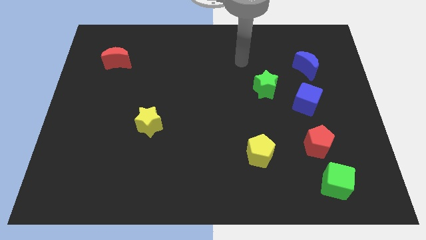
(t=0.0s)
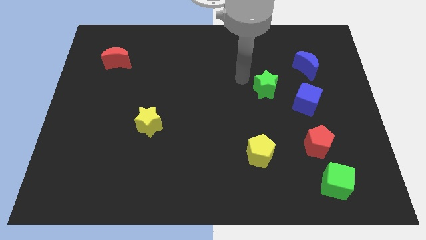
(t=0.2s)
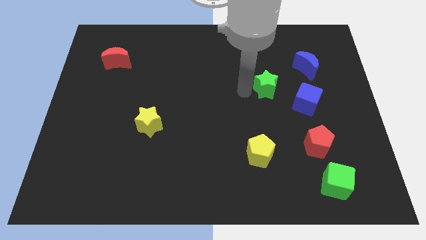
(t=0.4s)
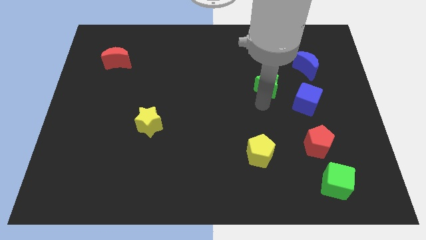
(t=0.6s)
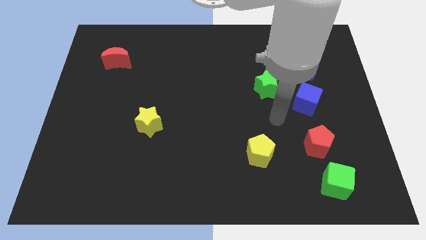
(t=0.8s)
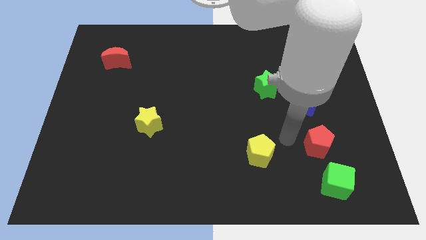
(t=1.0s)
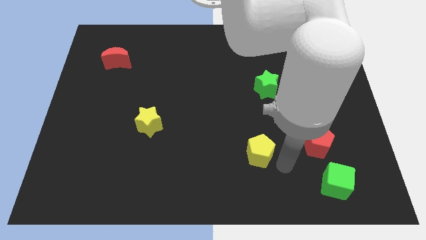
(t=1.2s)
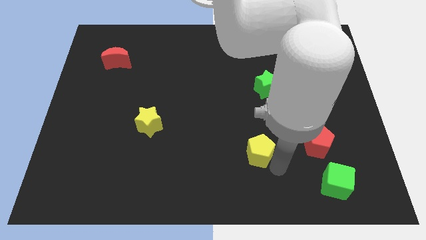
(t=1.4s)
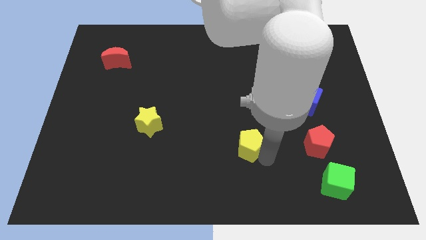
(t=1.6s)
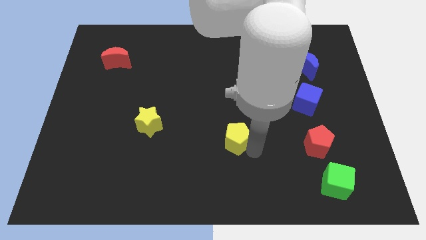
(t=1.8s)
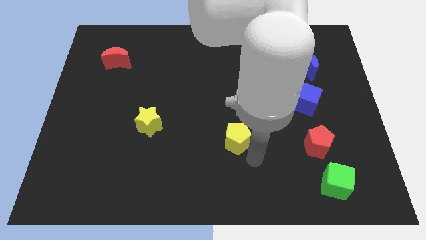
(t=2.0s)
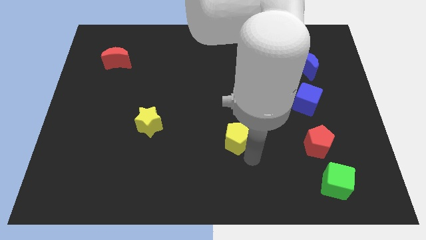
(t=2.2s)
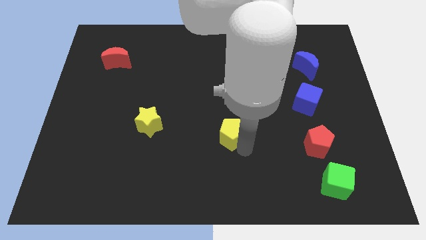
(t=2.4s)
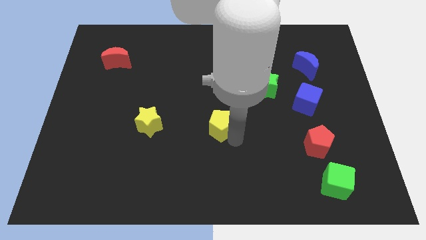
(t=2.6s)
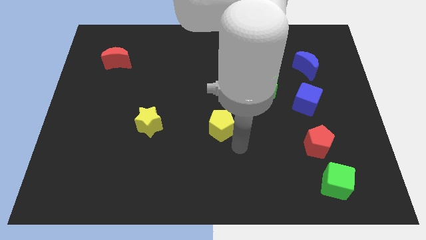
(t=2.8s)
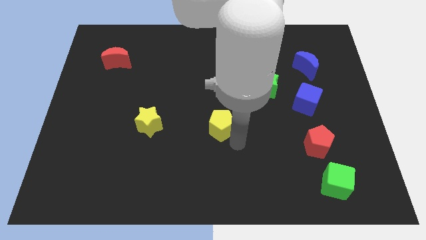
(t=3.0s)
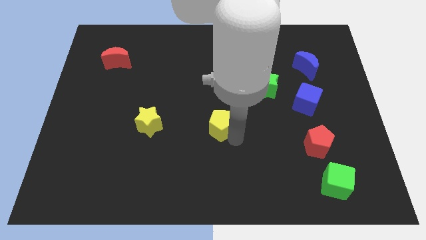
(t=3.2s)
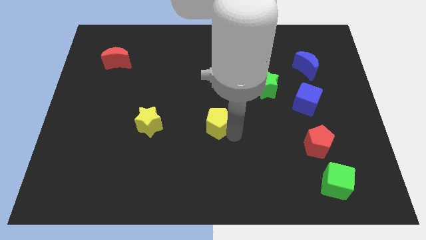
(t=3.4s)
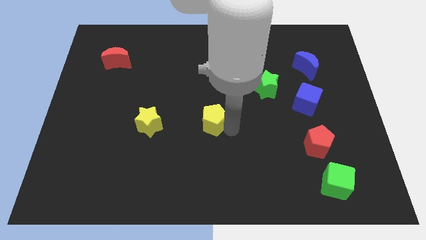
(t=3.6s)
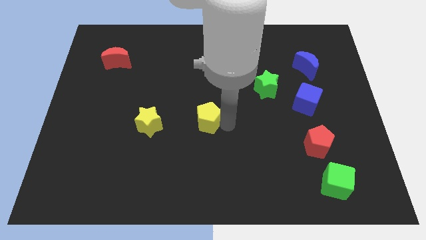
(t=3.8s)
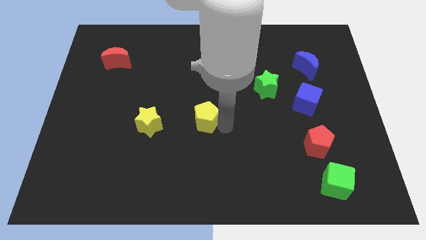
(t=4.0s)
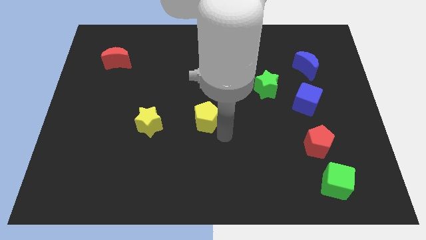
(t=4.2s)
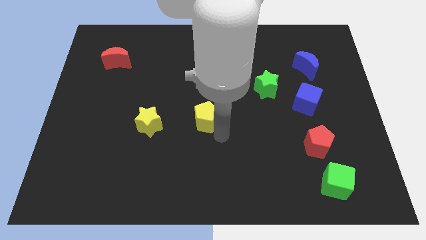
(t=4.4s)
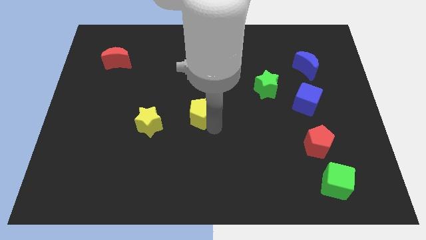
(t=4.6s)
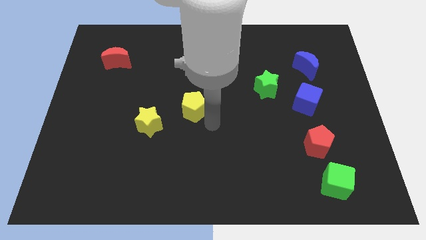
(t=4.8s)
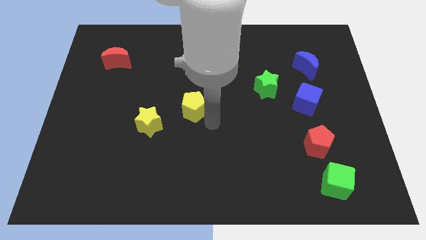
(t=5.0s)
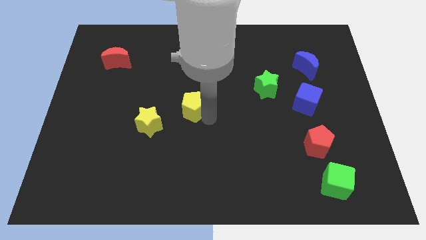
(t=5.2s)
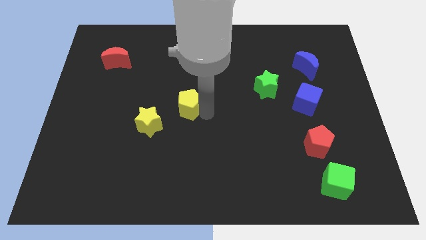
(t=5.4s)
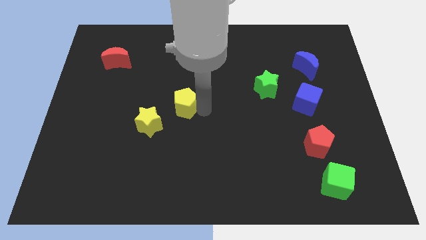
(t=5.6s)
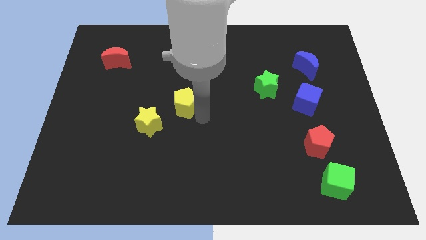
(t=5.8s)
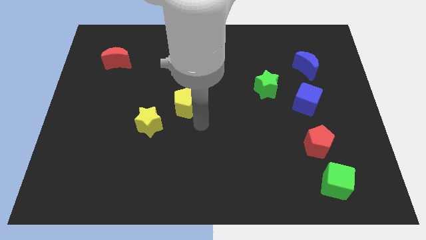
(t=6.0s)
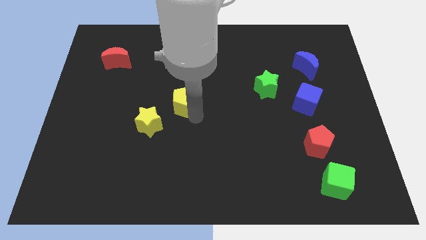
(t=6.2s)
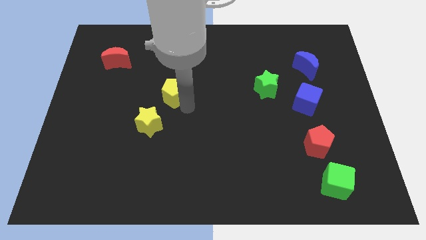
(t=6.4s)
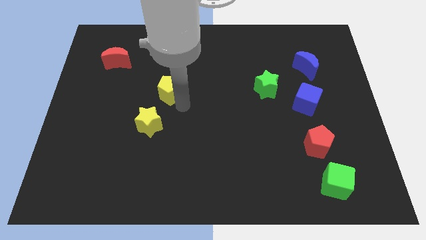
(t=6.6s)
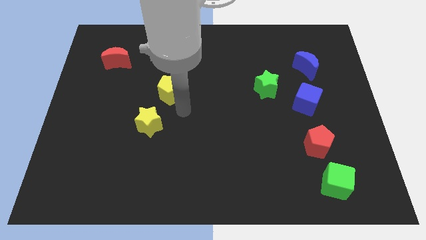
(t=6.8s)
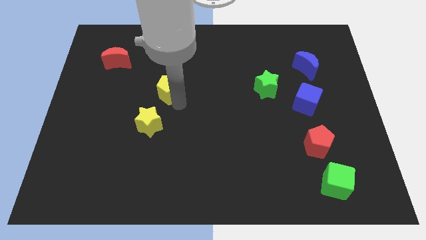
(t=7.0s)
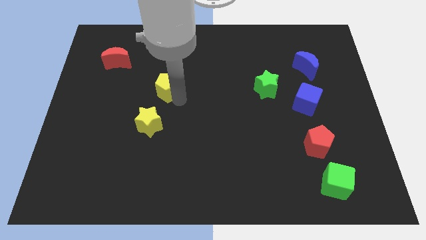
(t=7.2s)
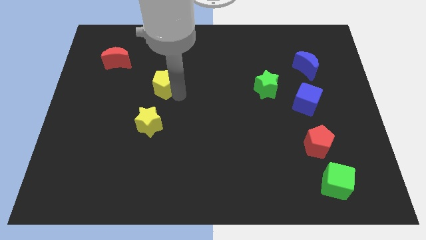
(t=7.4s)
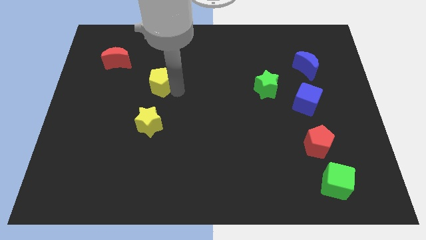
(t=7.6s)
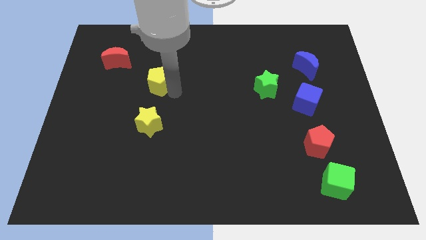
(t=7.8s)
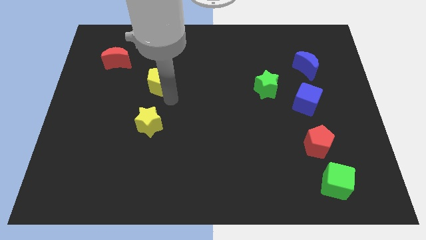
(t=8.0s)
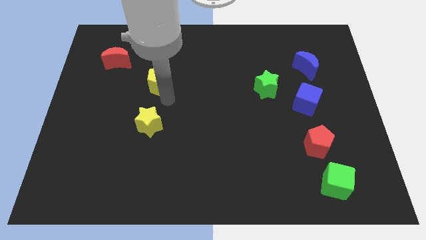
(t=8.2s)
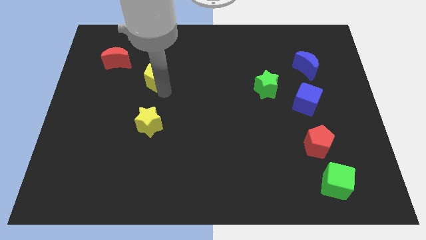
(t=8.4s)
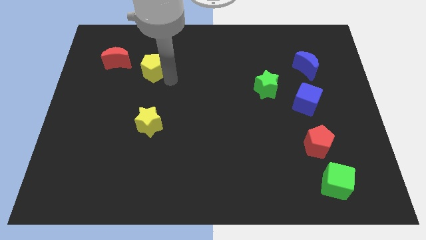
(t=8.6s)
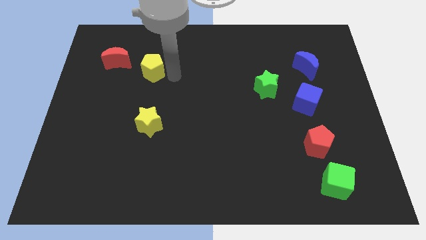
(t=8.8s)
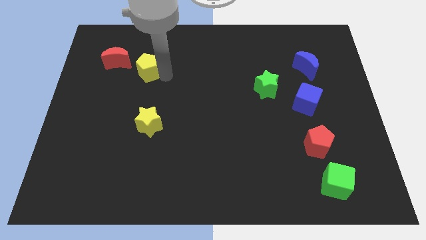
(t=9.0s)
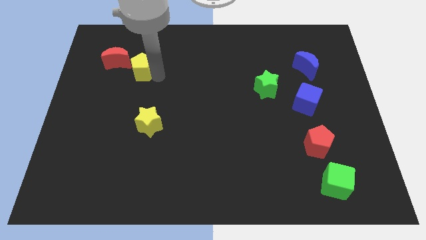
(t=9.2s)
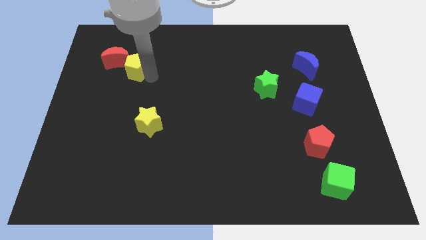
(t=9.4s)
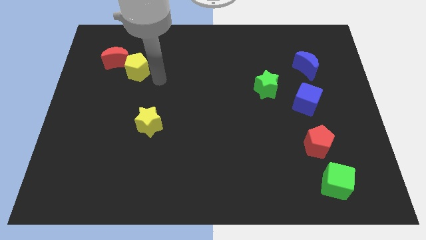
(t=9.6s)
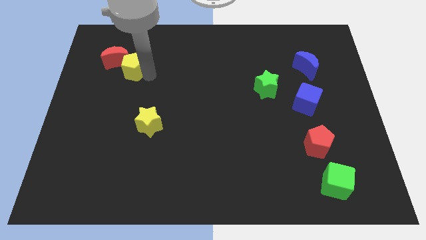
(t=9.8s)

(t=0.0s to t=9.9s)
slide the yellow pentagon to the red moon

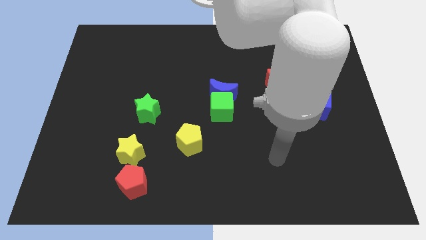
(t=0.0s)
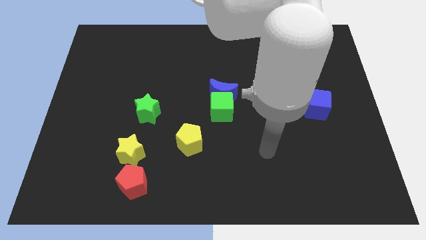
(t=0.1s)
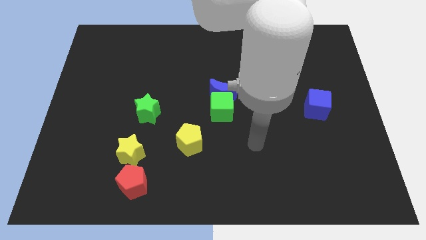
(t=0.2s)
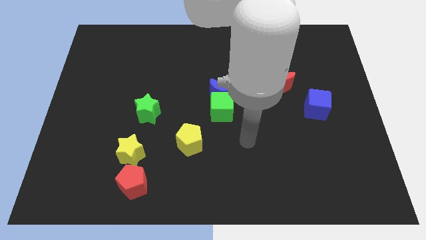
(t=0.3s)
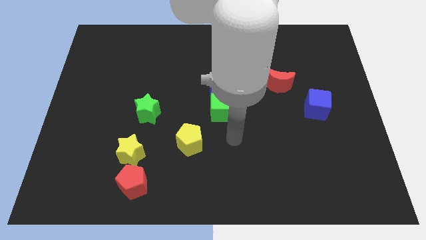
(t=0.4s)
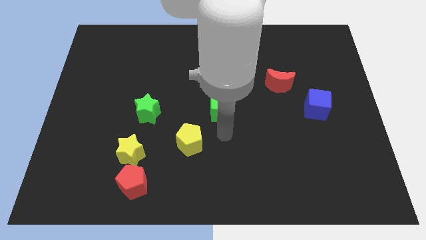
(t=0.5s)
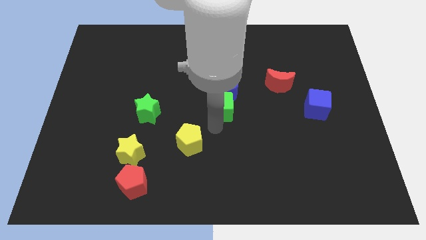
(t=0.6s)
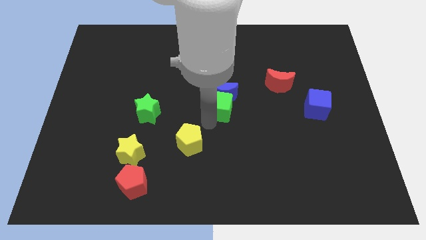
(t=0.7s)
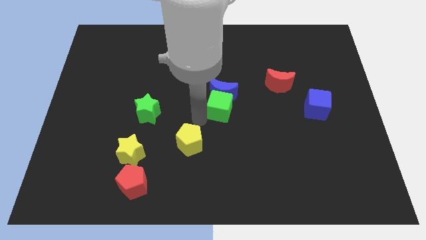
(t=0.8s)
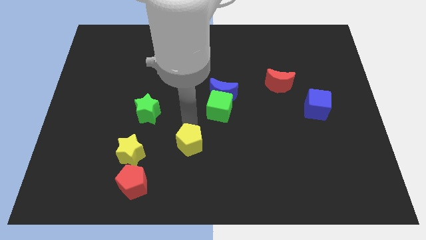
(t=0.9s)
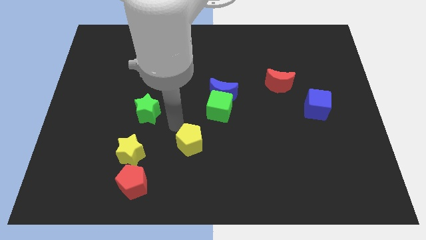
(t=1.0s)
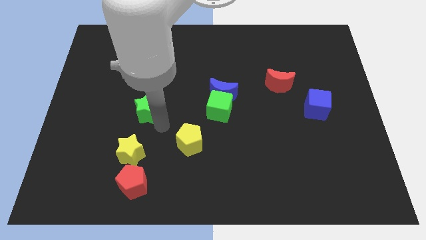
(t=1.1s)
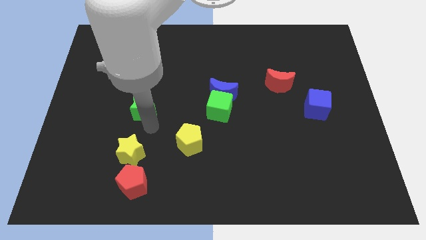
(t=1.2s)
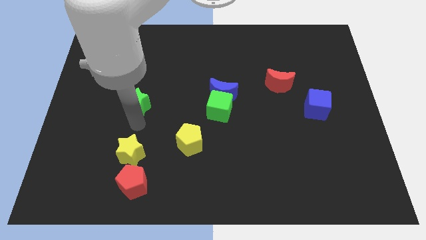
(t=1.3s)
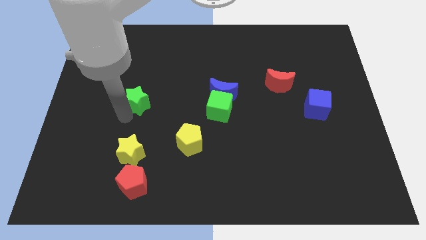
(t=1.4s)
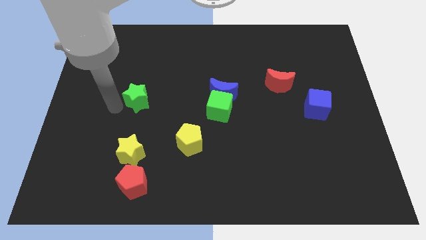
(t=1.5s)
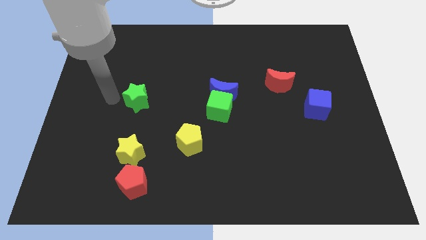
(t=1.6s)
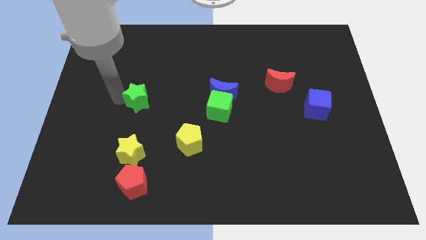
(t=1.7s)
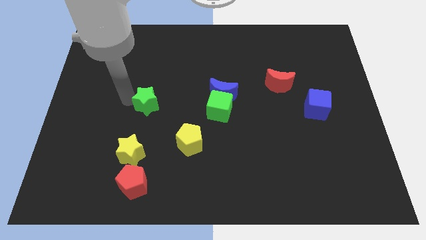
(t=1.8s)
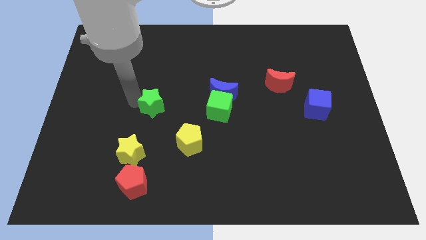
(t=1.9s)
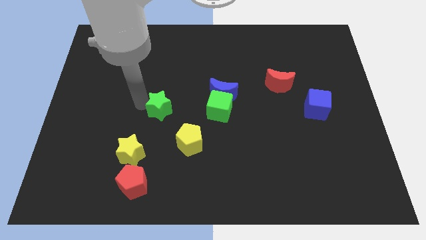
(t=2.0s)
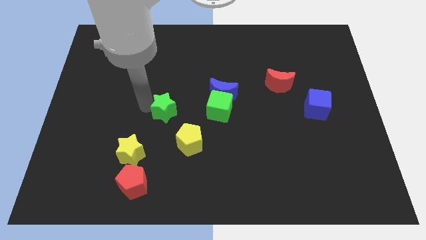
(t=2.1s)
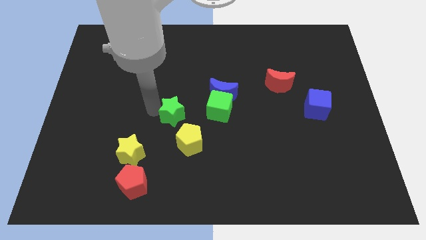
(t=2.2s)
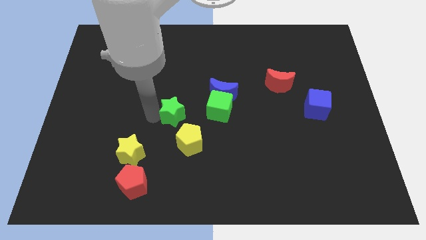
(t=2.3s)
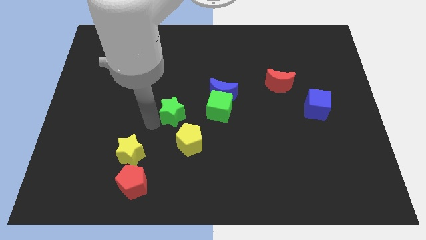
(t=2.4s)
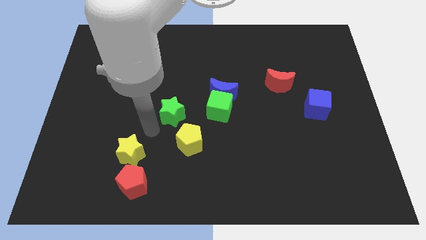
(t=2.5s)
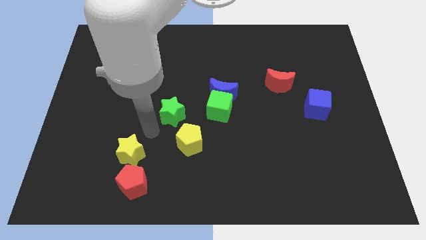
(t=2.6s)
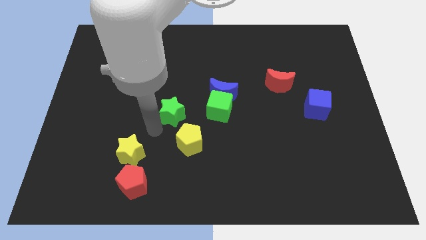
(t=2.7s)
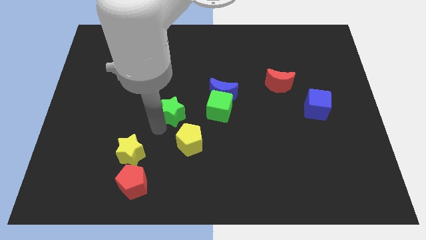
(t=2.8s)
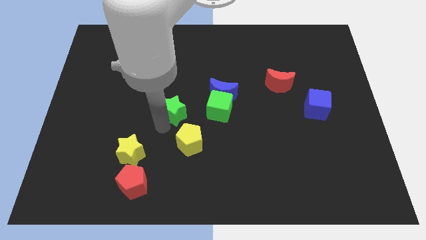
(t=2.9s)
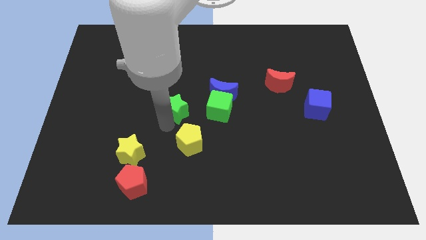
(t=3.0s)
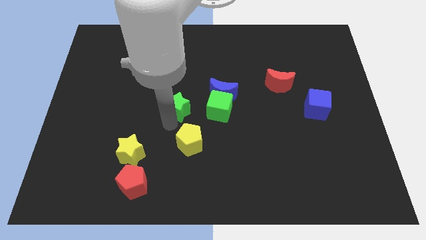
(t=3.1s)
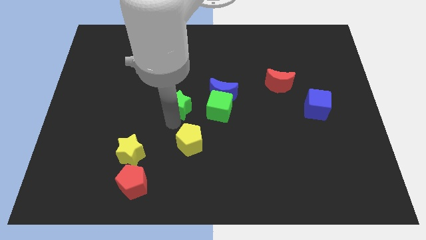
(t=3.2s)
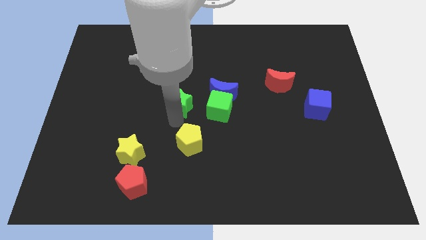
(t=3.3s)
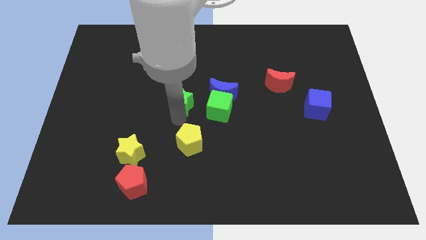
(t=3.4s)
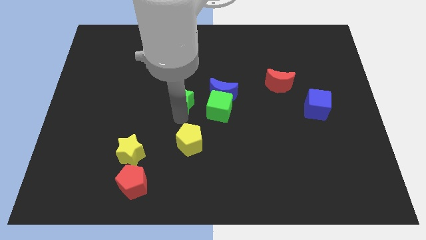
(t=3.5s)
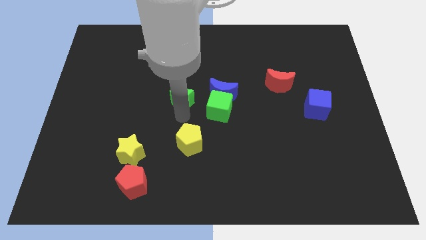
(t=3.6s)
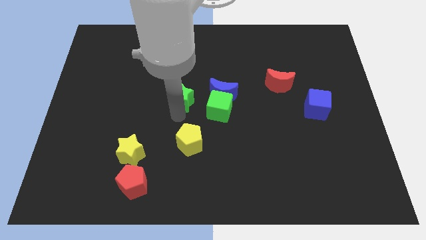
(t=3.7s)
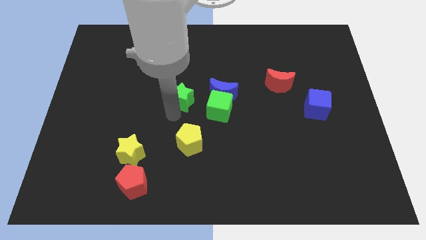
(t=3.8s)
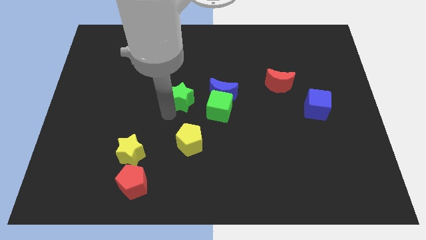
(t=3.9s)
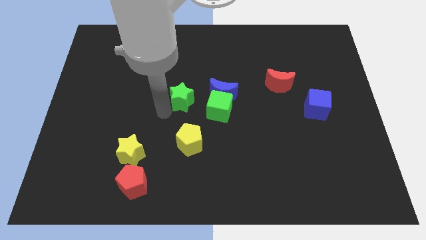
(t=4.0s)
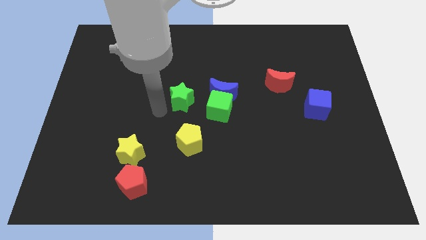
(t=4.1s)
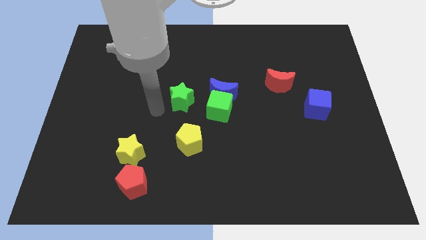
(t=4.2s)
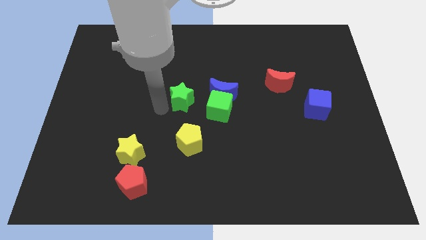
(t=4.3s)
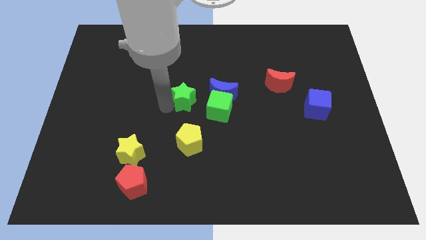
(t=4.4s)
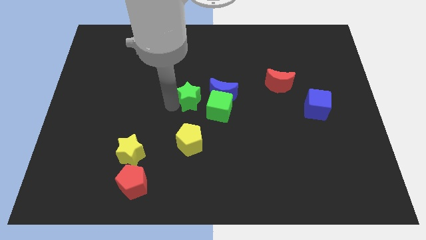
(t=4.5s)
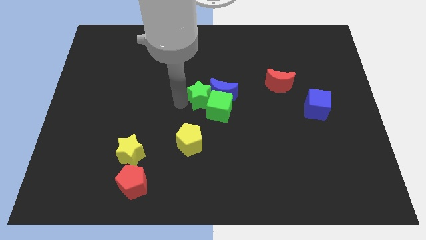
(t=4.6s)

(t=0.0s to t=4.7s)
slide the green star next to the blue moon
